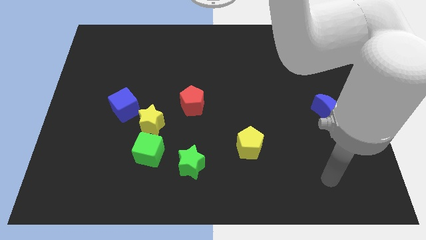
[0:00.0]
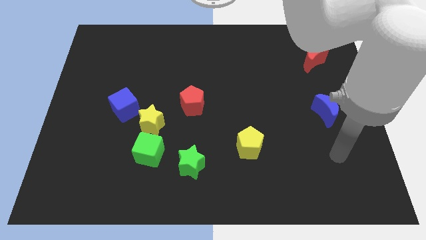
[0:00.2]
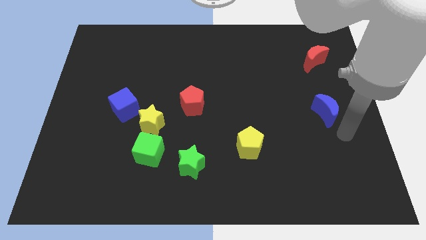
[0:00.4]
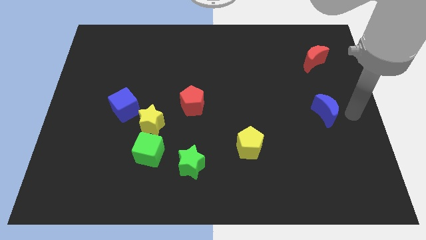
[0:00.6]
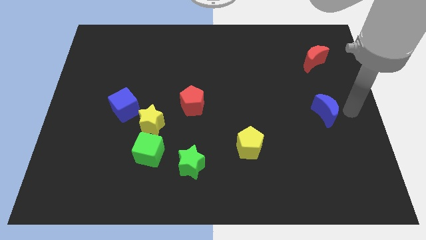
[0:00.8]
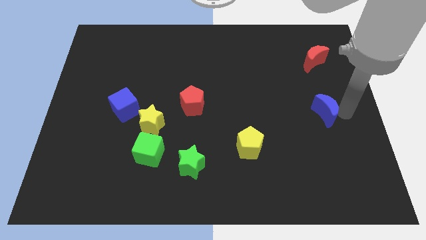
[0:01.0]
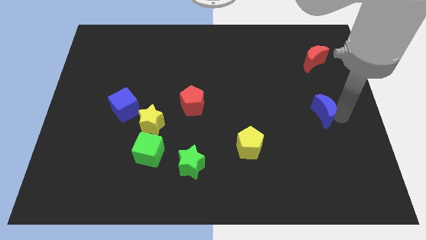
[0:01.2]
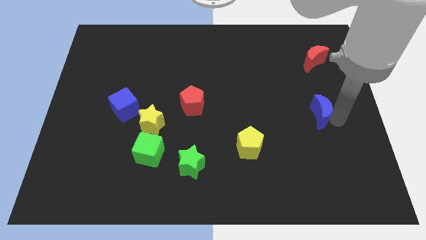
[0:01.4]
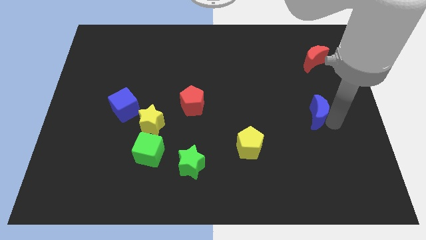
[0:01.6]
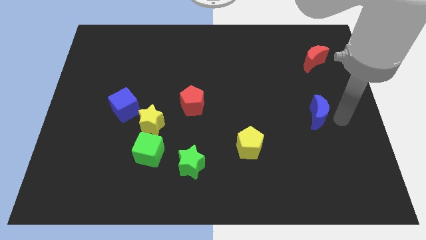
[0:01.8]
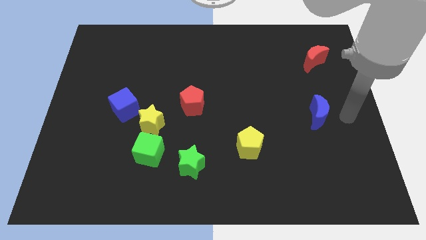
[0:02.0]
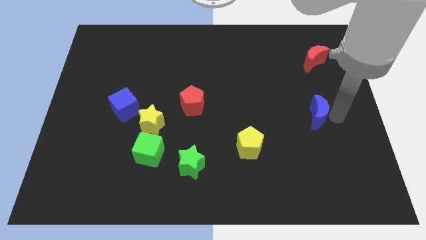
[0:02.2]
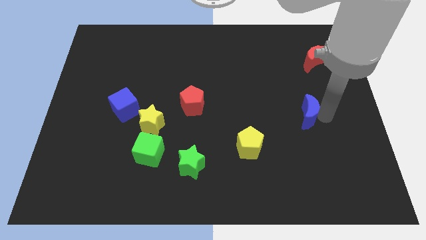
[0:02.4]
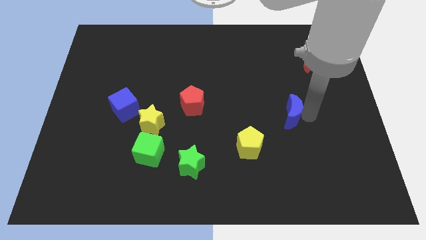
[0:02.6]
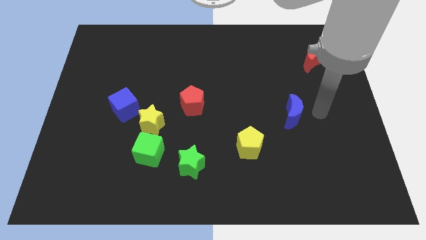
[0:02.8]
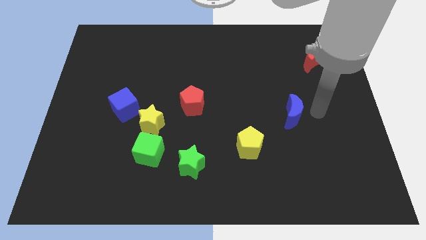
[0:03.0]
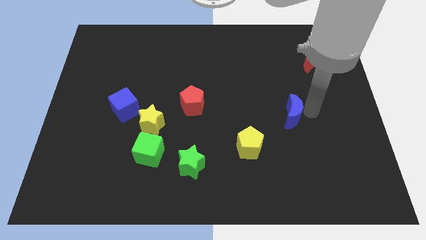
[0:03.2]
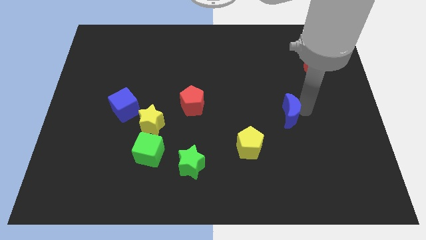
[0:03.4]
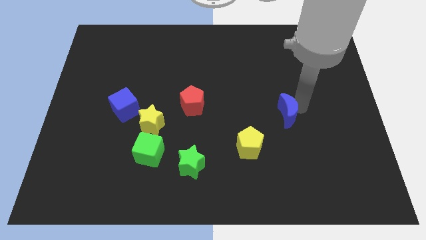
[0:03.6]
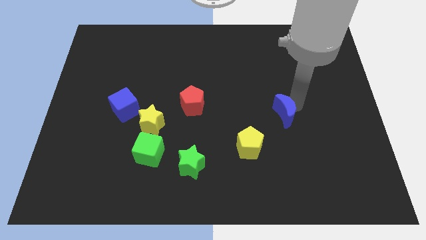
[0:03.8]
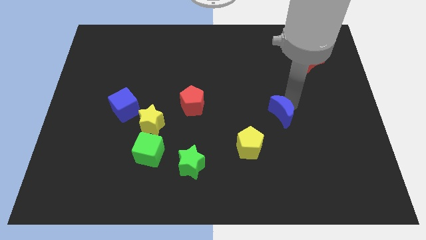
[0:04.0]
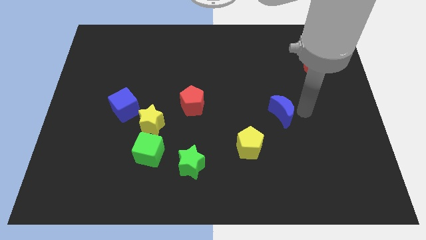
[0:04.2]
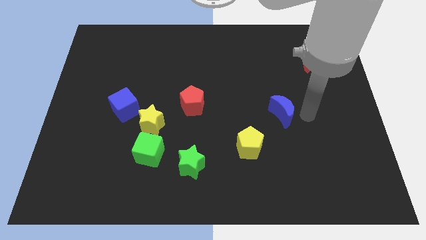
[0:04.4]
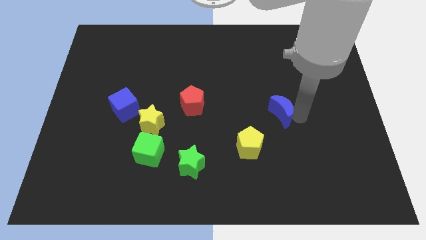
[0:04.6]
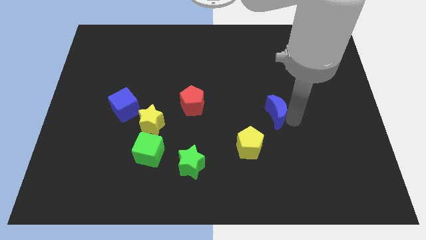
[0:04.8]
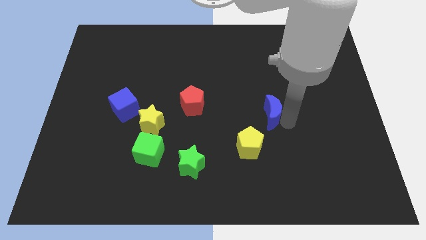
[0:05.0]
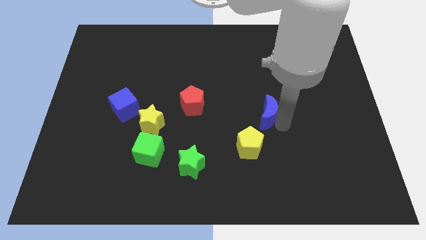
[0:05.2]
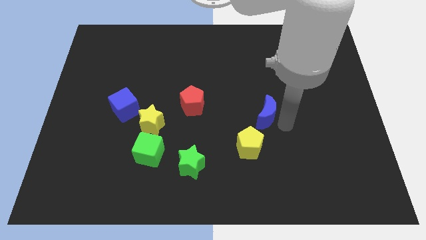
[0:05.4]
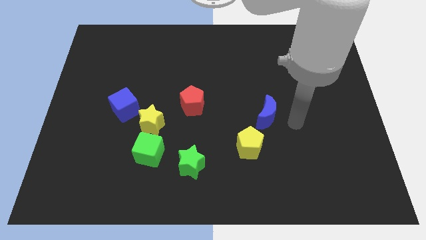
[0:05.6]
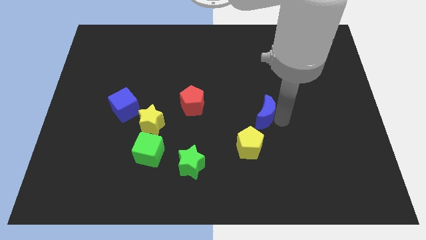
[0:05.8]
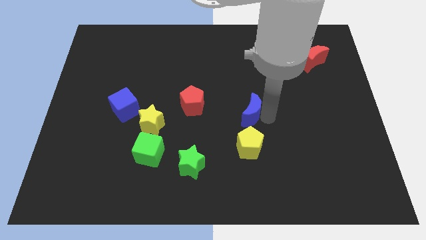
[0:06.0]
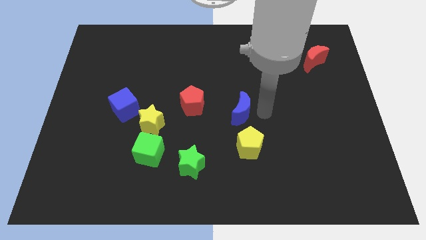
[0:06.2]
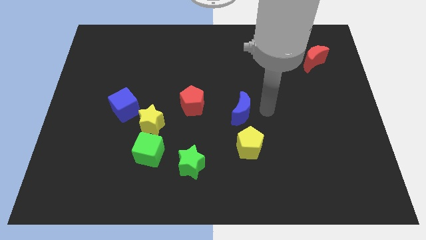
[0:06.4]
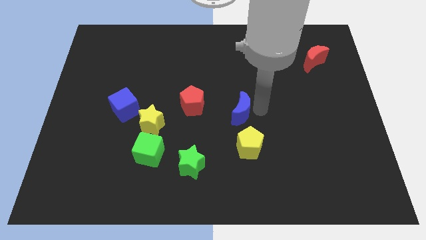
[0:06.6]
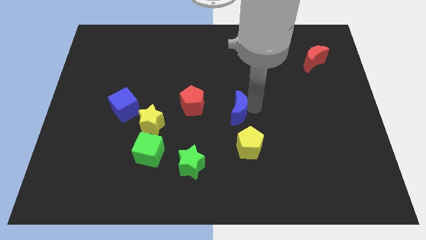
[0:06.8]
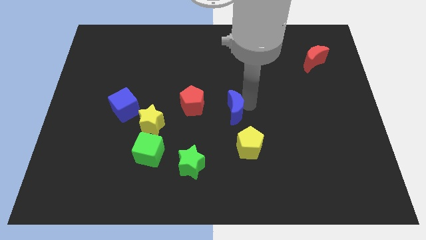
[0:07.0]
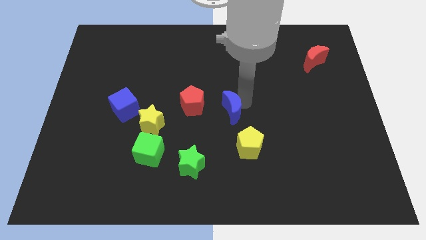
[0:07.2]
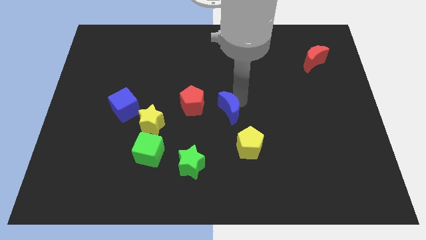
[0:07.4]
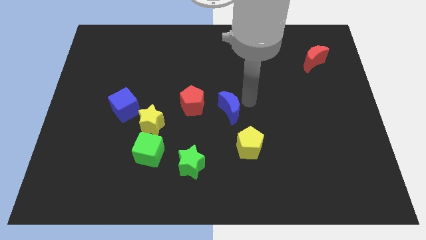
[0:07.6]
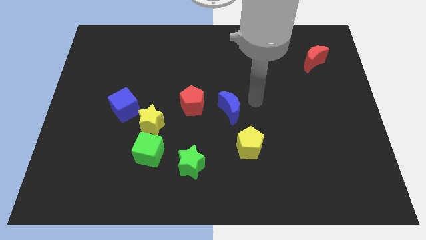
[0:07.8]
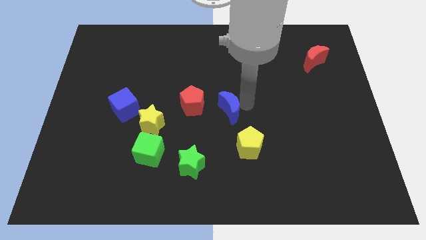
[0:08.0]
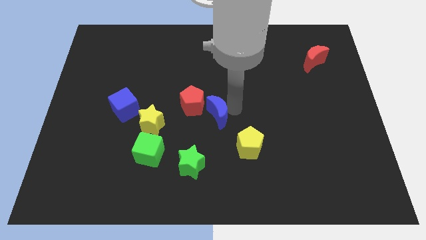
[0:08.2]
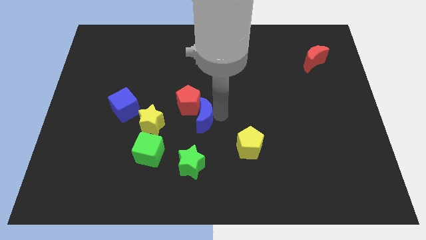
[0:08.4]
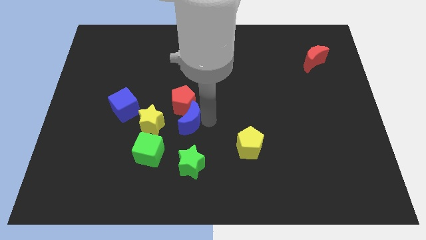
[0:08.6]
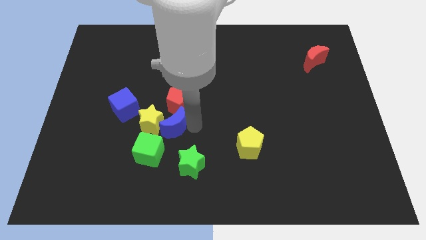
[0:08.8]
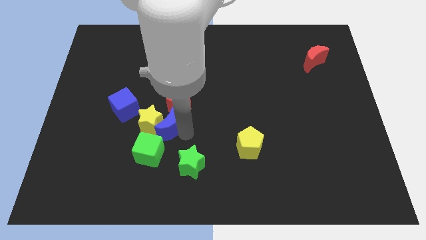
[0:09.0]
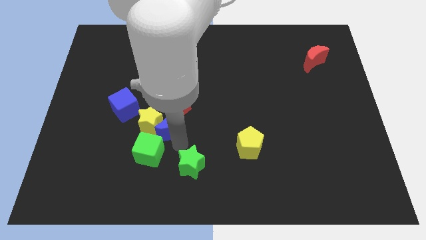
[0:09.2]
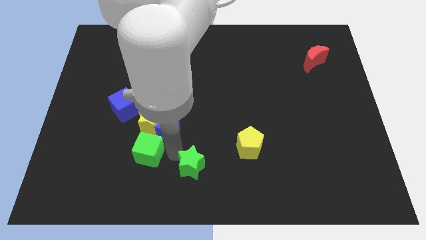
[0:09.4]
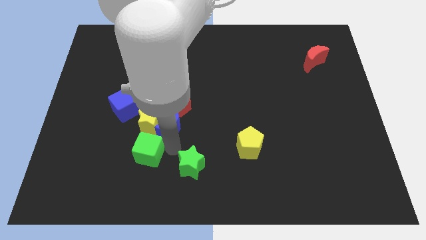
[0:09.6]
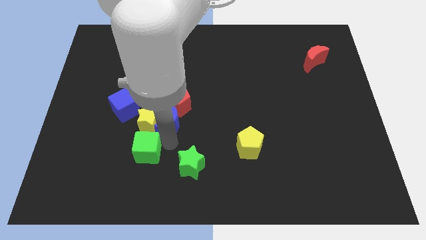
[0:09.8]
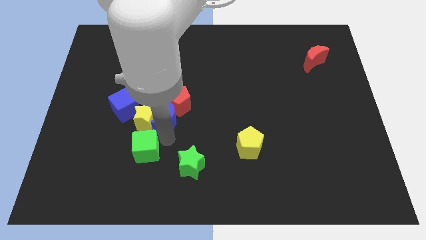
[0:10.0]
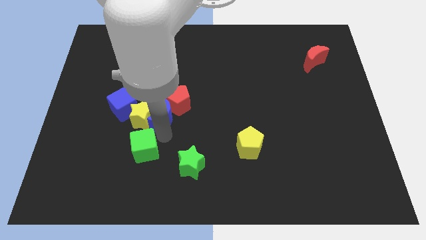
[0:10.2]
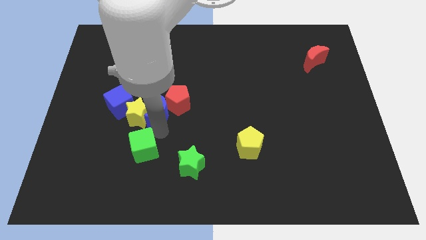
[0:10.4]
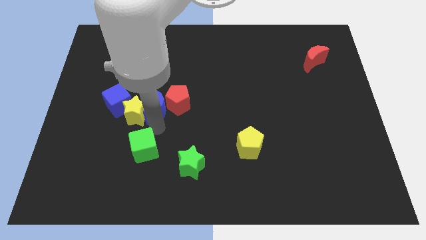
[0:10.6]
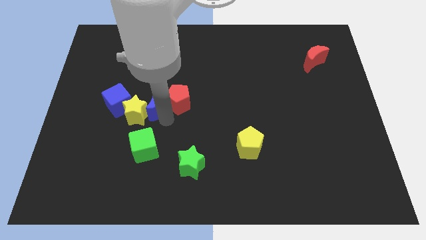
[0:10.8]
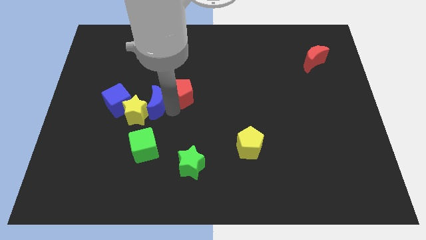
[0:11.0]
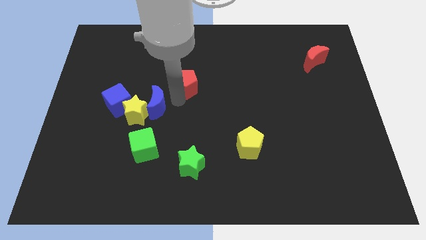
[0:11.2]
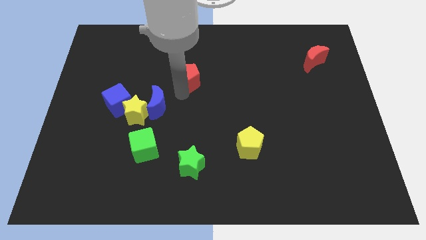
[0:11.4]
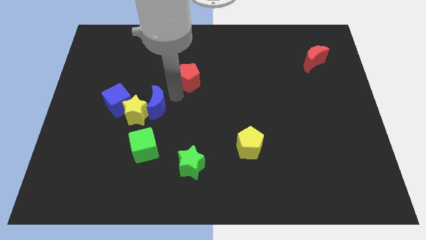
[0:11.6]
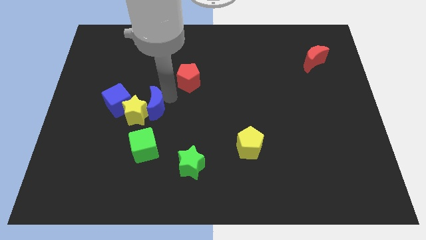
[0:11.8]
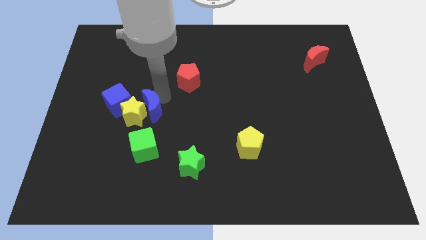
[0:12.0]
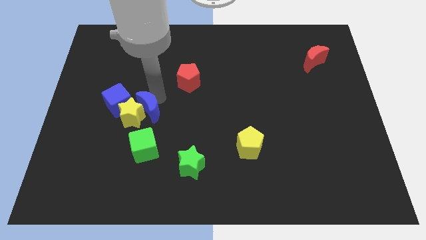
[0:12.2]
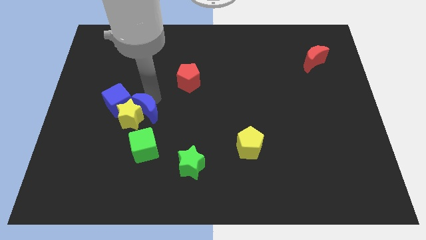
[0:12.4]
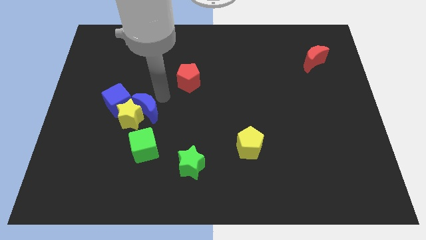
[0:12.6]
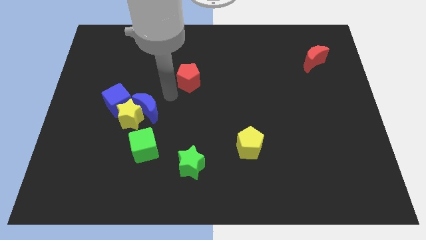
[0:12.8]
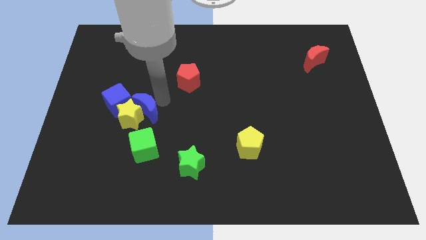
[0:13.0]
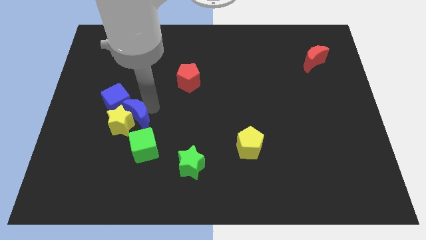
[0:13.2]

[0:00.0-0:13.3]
slide the blue moon to the top left side of the green cube

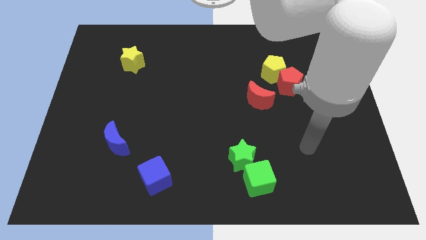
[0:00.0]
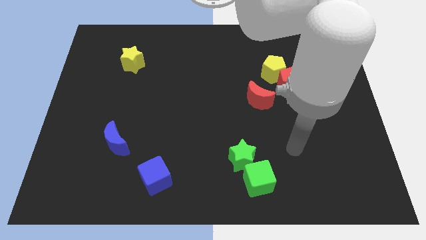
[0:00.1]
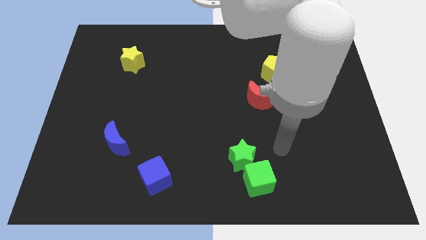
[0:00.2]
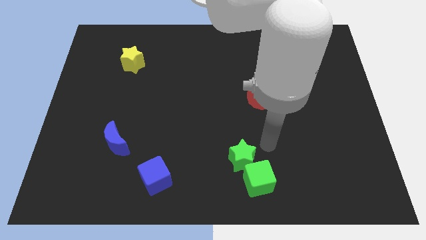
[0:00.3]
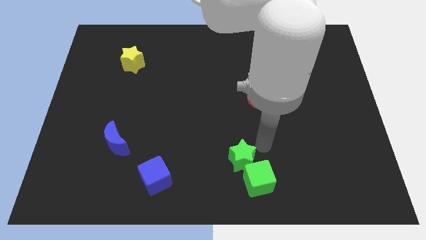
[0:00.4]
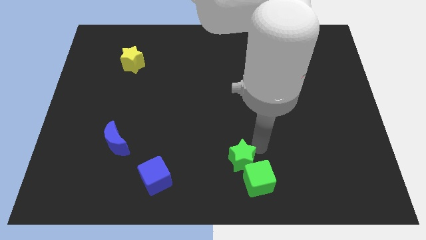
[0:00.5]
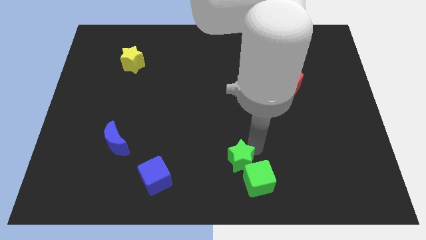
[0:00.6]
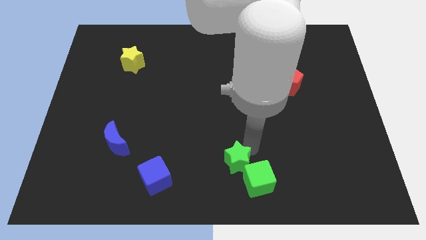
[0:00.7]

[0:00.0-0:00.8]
put the green star to the left of the green cube
